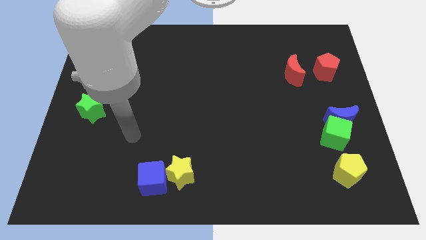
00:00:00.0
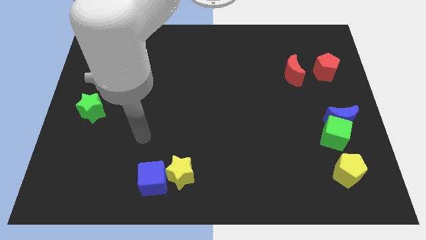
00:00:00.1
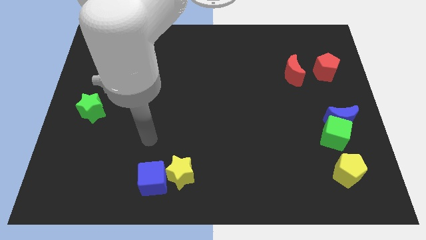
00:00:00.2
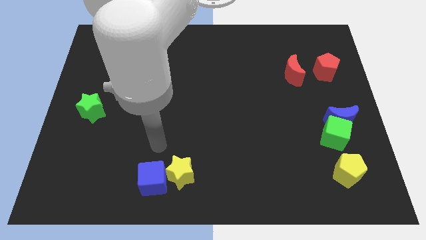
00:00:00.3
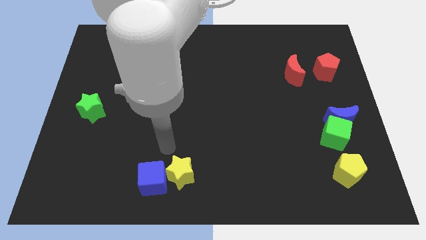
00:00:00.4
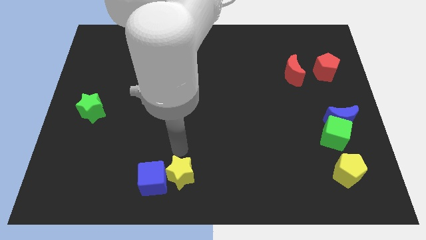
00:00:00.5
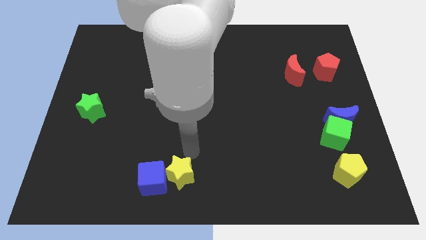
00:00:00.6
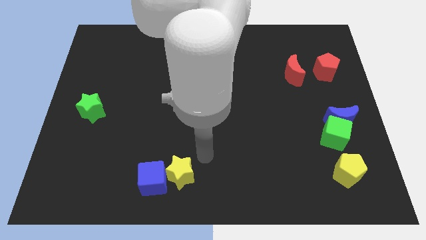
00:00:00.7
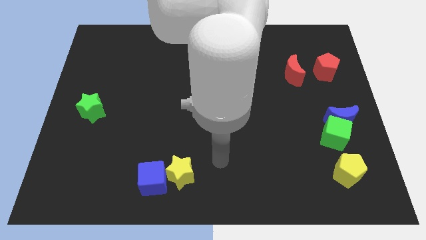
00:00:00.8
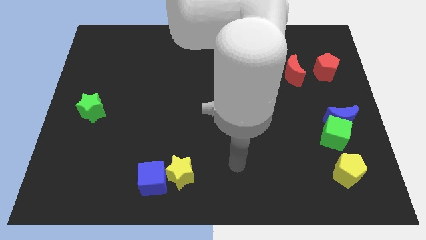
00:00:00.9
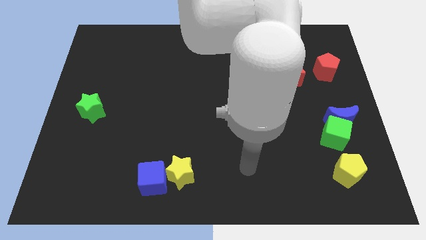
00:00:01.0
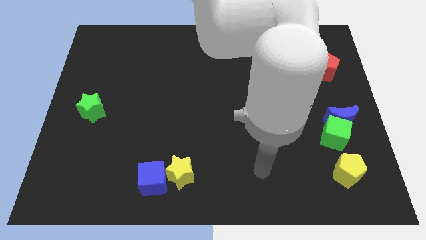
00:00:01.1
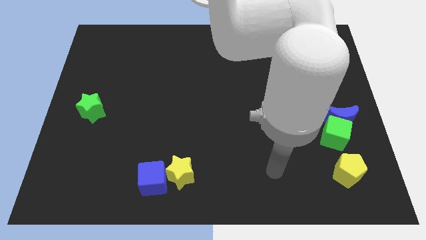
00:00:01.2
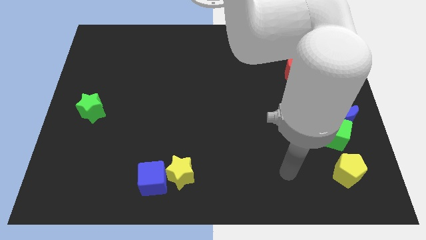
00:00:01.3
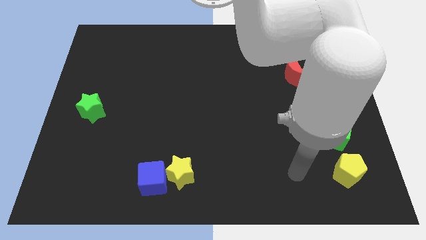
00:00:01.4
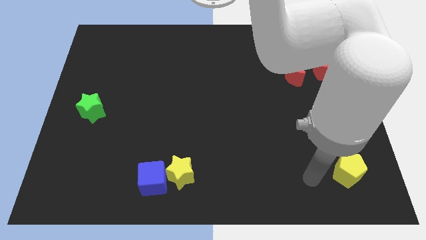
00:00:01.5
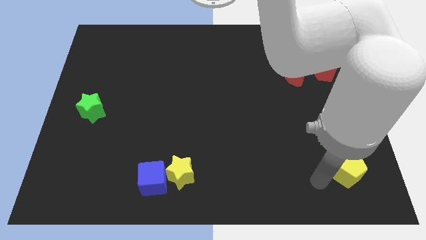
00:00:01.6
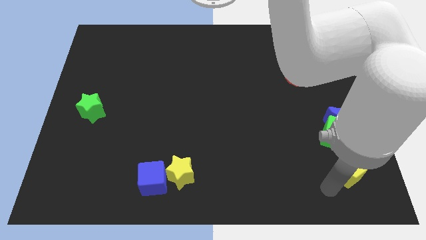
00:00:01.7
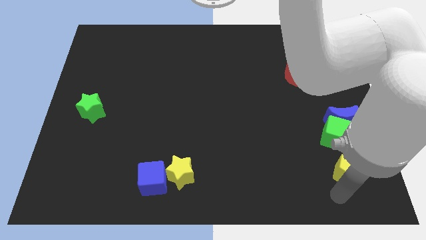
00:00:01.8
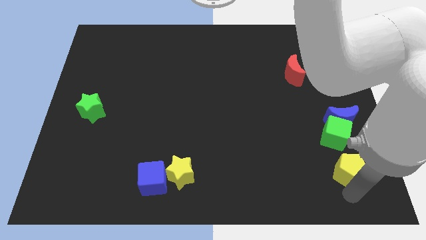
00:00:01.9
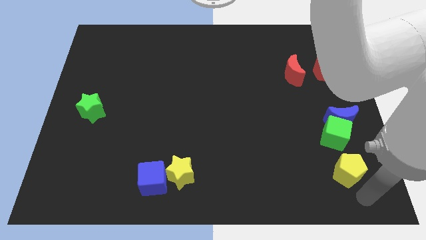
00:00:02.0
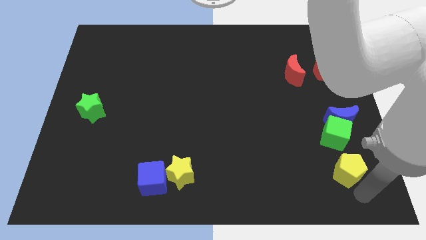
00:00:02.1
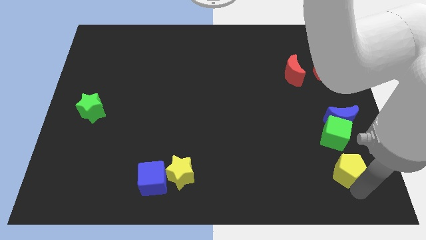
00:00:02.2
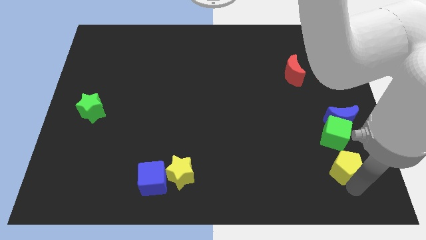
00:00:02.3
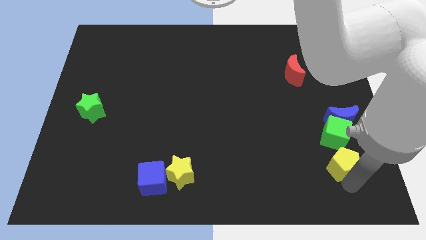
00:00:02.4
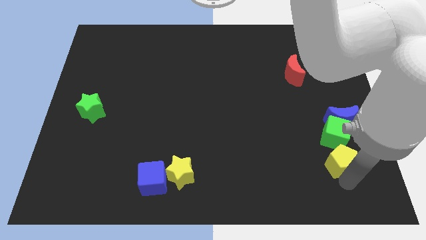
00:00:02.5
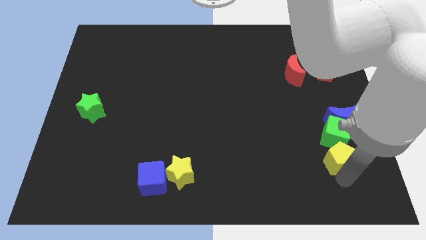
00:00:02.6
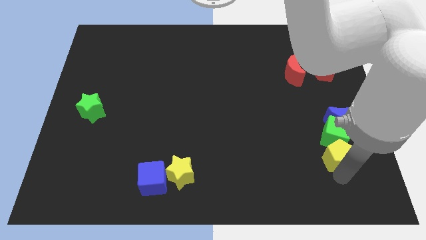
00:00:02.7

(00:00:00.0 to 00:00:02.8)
push the yellow pentagon diagonally down and to the left of the blue moon

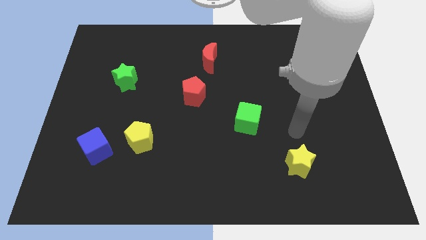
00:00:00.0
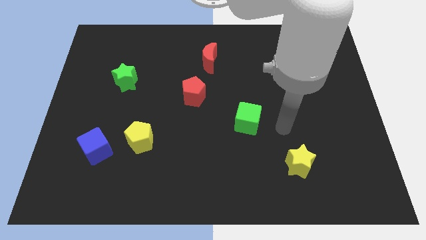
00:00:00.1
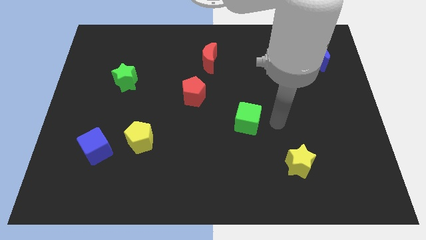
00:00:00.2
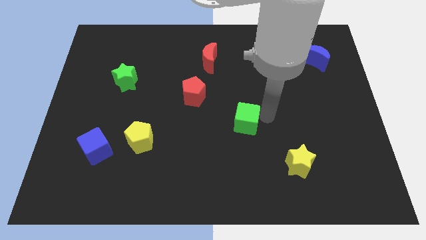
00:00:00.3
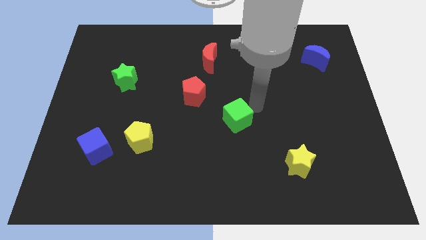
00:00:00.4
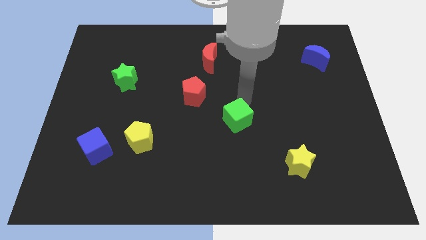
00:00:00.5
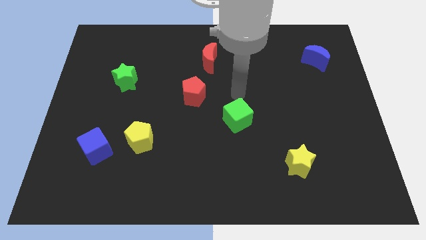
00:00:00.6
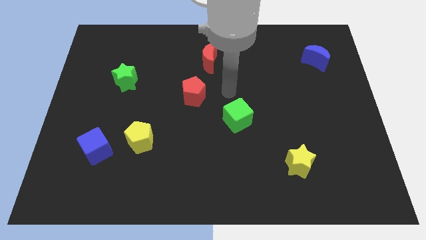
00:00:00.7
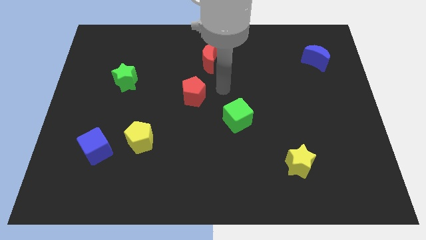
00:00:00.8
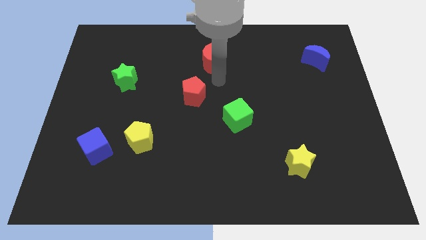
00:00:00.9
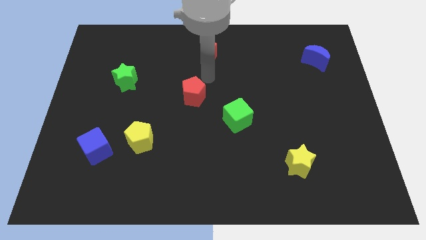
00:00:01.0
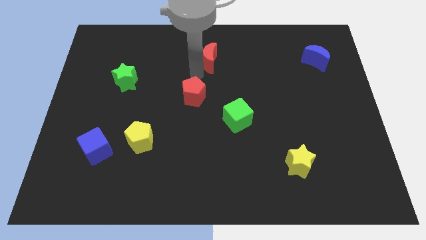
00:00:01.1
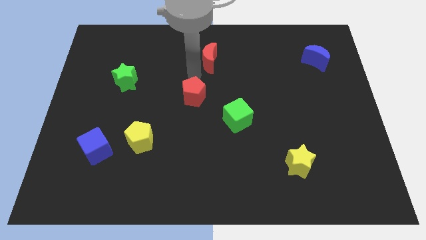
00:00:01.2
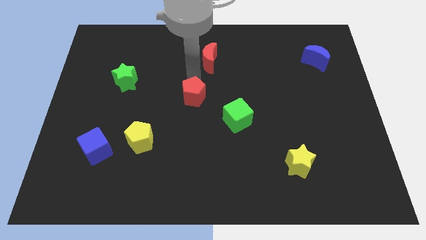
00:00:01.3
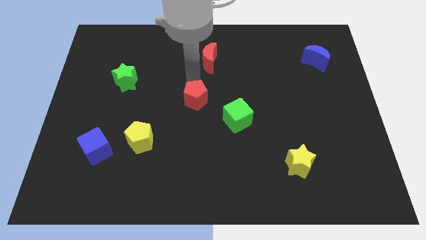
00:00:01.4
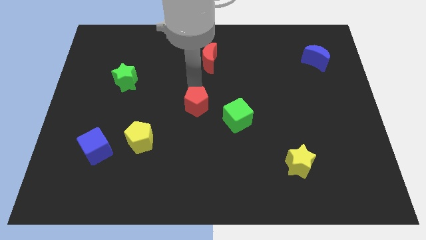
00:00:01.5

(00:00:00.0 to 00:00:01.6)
move the red pentagon just left of the green cube

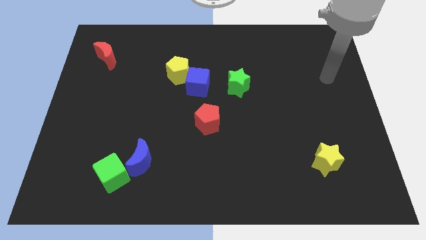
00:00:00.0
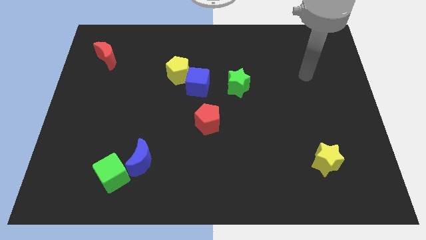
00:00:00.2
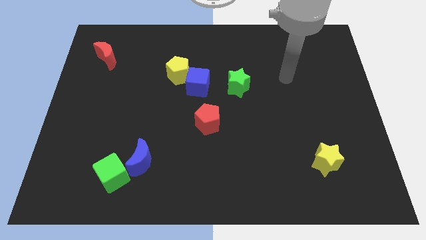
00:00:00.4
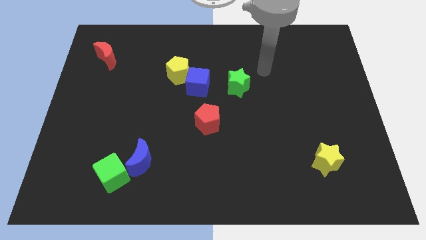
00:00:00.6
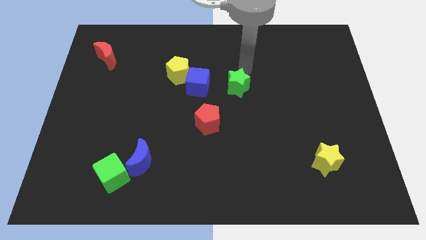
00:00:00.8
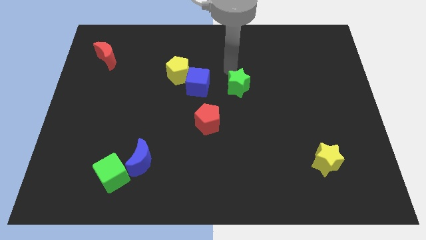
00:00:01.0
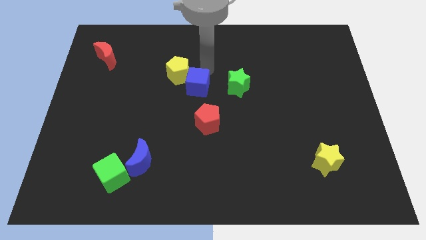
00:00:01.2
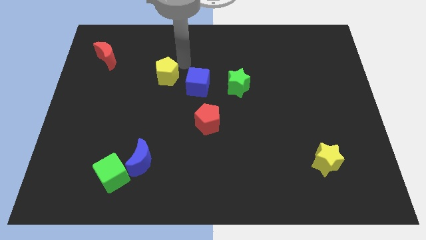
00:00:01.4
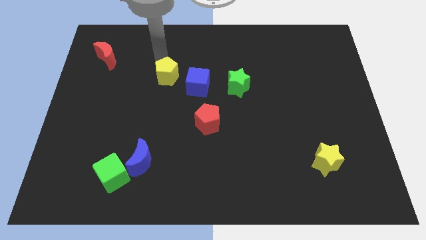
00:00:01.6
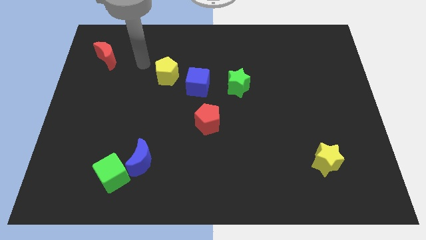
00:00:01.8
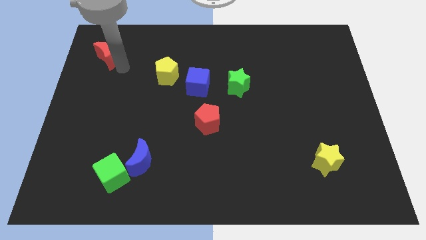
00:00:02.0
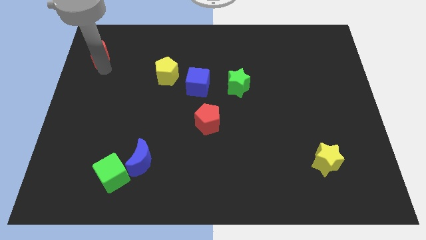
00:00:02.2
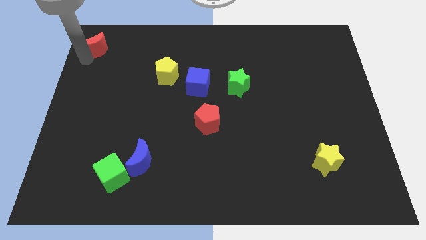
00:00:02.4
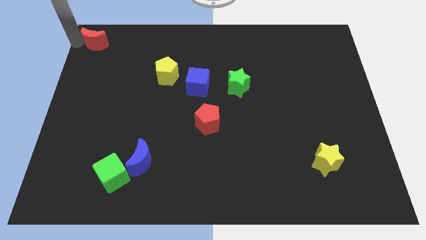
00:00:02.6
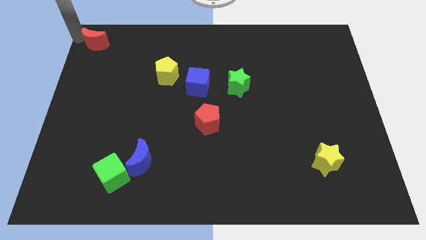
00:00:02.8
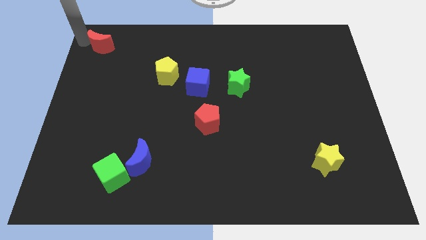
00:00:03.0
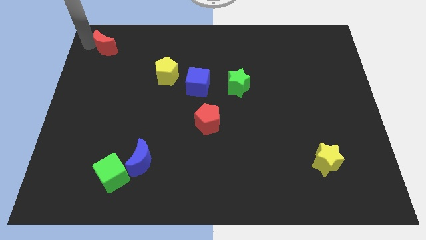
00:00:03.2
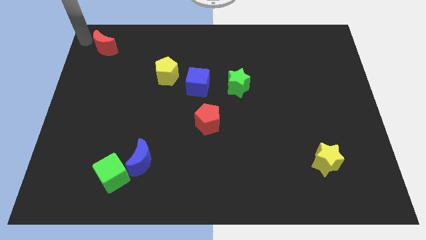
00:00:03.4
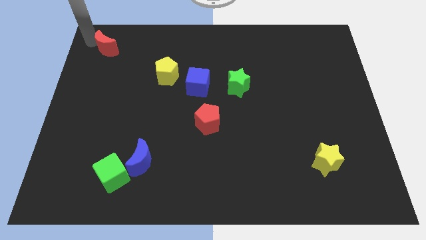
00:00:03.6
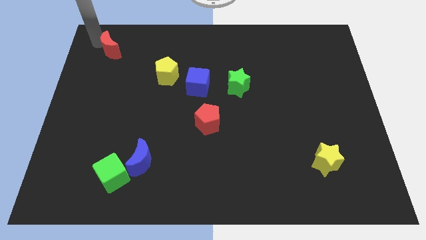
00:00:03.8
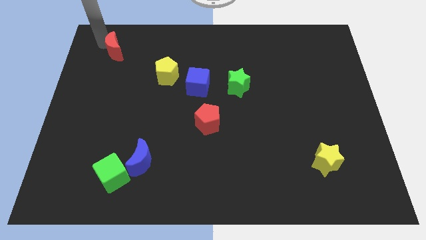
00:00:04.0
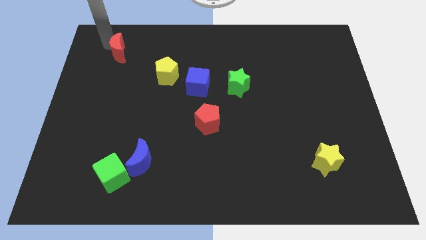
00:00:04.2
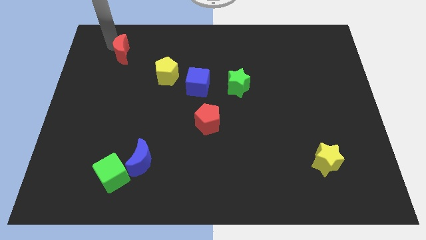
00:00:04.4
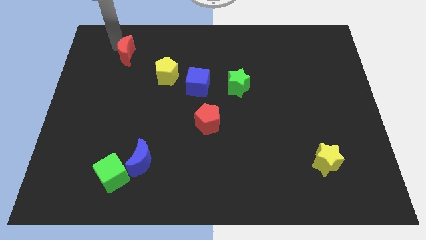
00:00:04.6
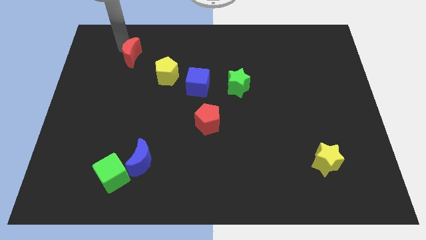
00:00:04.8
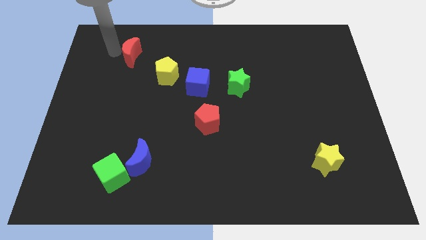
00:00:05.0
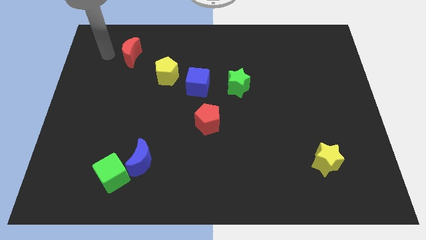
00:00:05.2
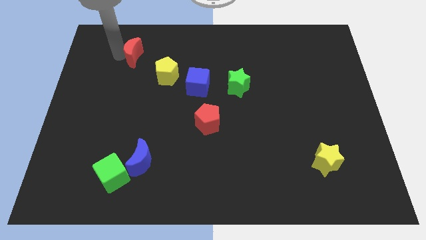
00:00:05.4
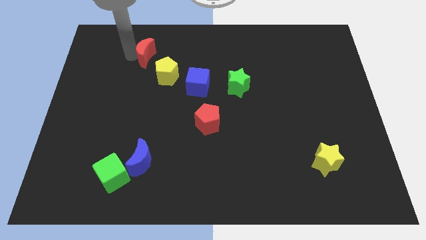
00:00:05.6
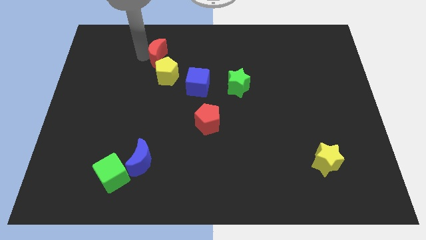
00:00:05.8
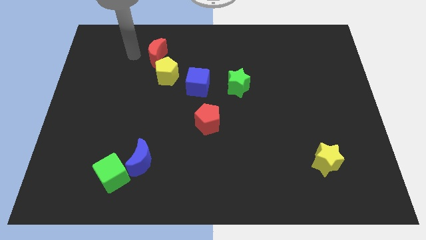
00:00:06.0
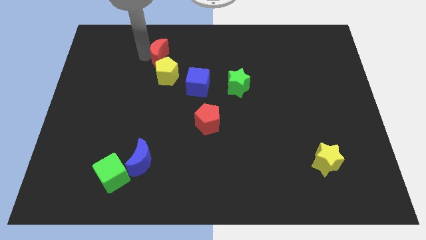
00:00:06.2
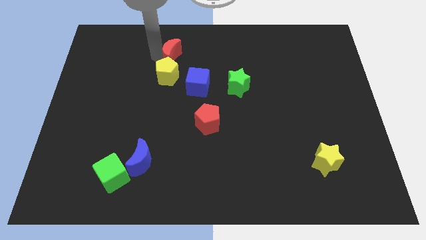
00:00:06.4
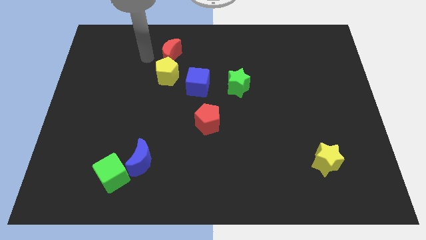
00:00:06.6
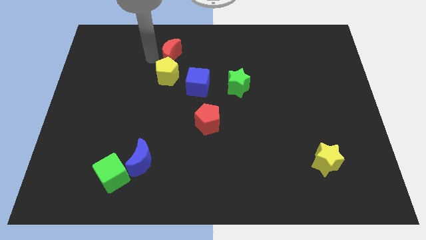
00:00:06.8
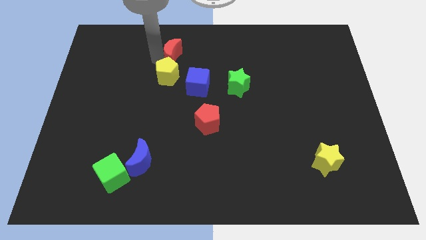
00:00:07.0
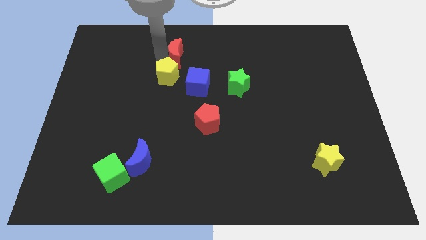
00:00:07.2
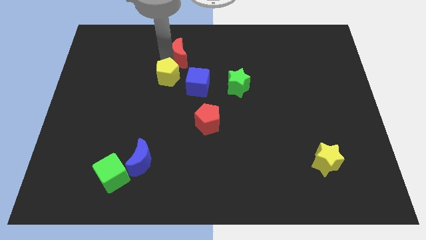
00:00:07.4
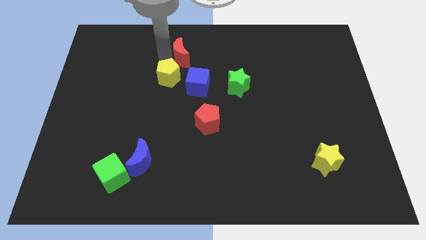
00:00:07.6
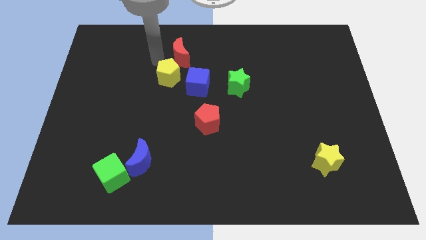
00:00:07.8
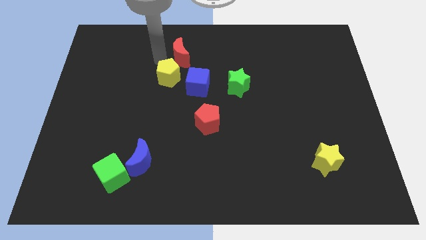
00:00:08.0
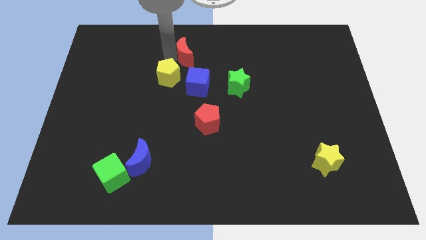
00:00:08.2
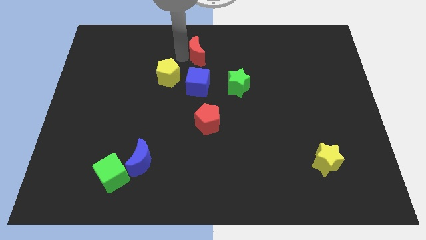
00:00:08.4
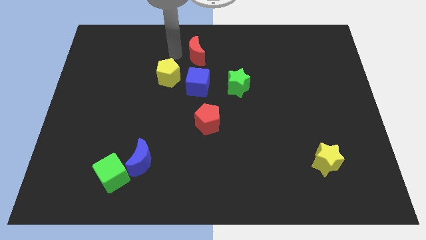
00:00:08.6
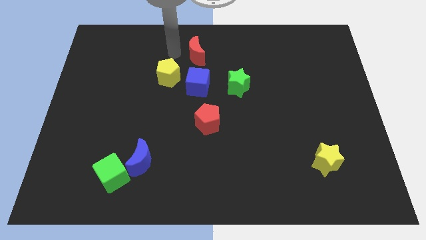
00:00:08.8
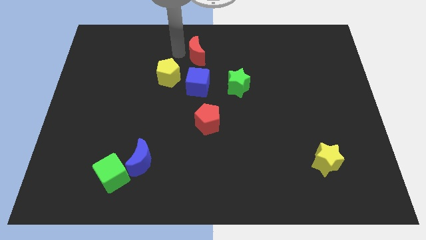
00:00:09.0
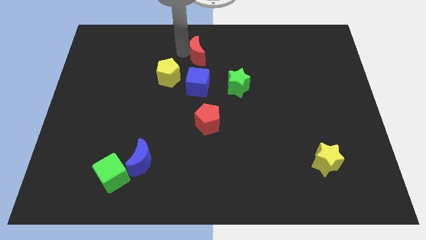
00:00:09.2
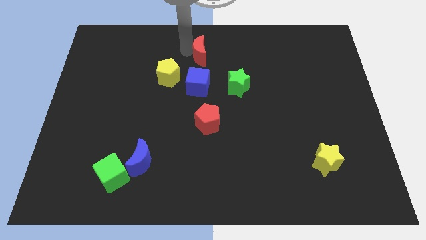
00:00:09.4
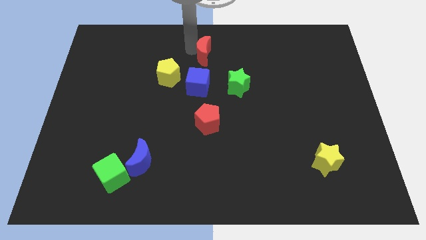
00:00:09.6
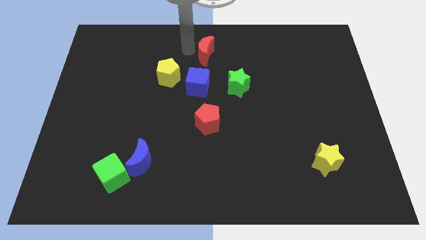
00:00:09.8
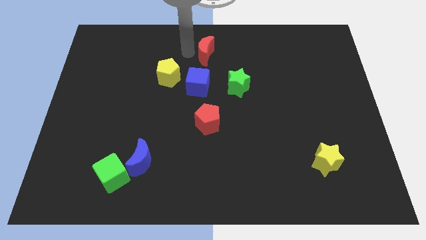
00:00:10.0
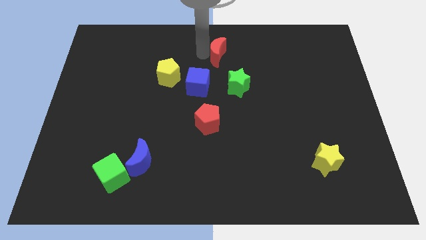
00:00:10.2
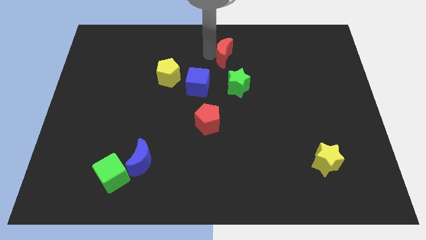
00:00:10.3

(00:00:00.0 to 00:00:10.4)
slide the red moon to the top of the green star
